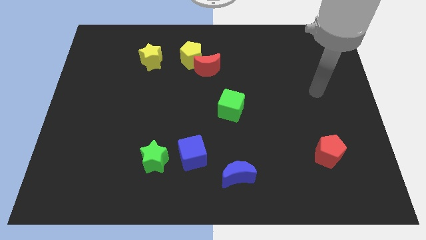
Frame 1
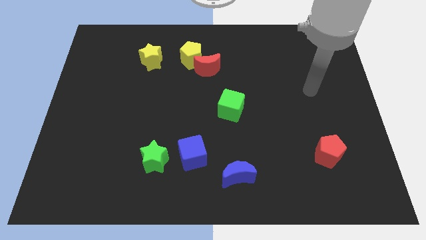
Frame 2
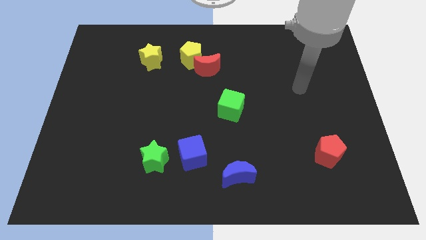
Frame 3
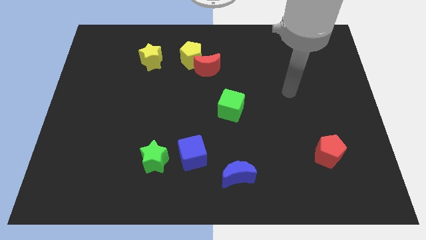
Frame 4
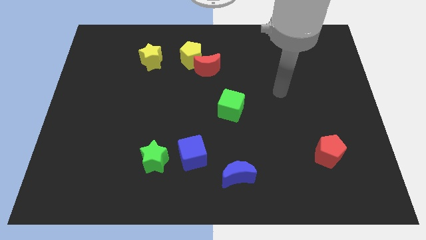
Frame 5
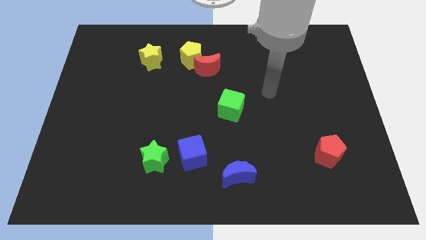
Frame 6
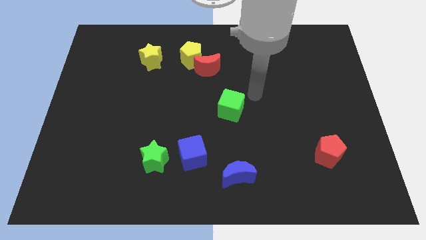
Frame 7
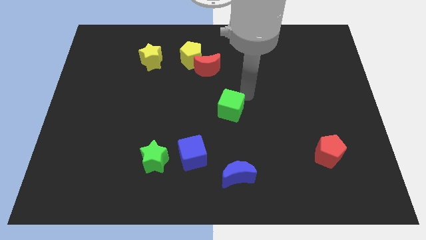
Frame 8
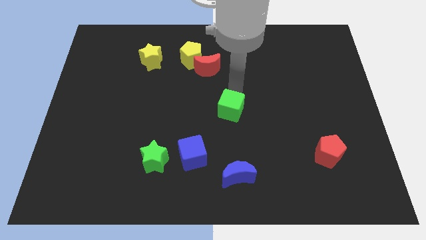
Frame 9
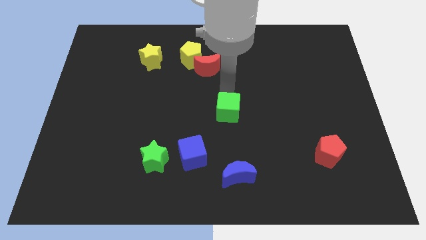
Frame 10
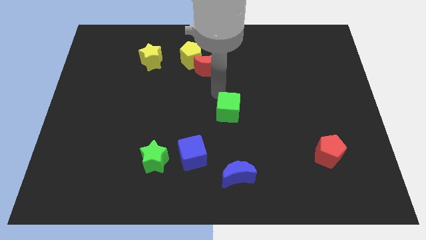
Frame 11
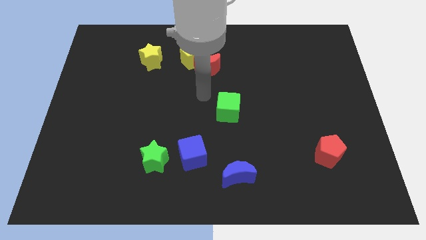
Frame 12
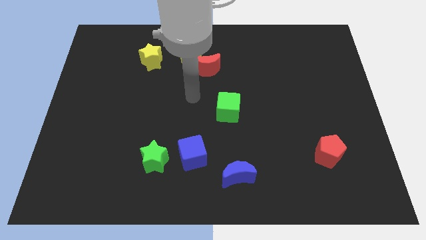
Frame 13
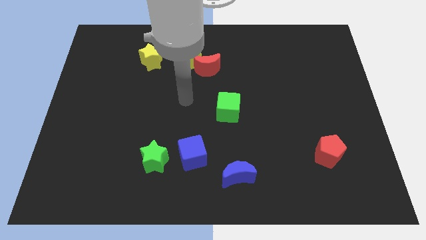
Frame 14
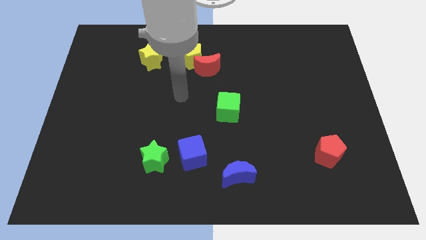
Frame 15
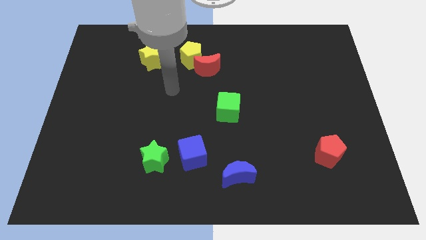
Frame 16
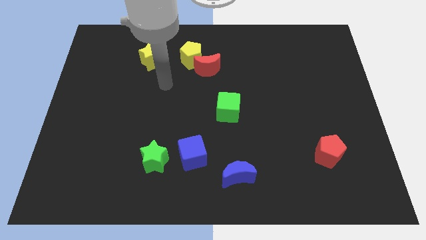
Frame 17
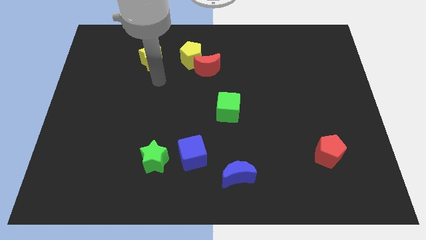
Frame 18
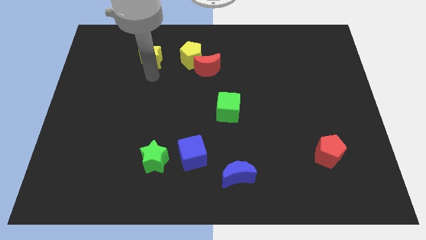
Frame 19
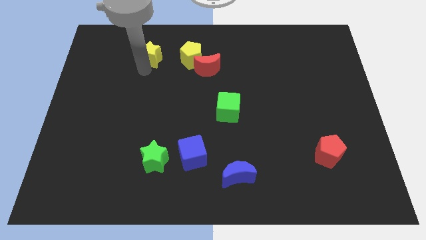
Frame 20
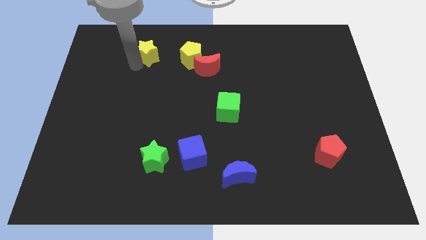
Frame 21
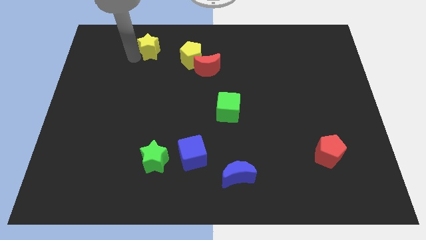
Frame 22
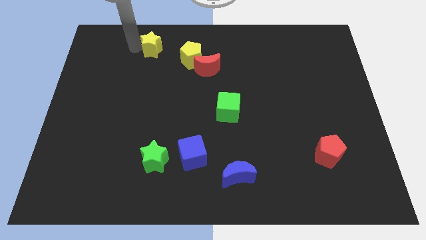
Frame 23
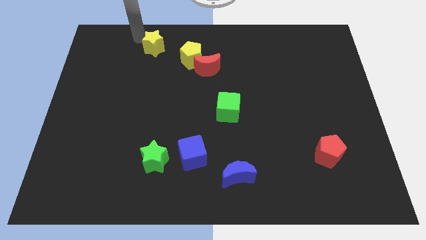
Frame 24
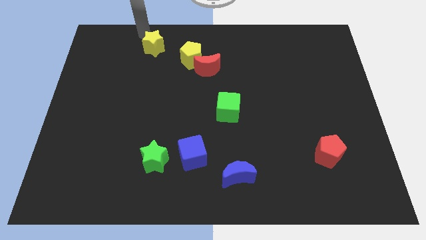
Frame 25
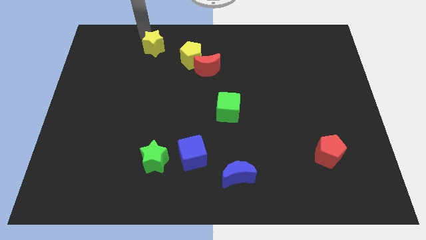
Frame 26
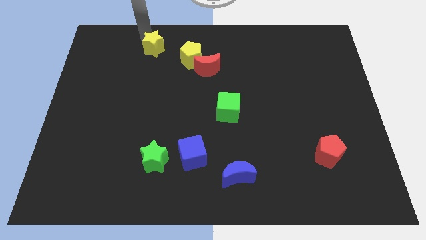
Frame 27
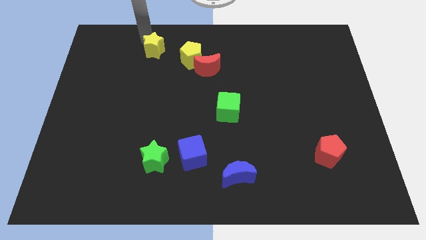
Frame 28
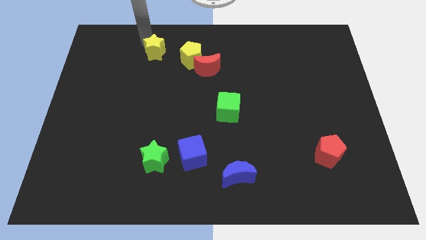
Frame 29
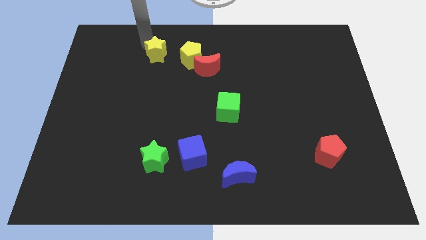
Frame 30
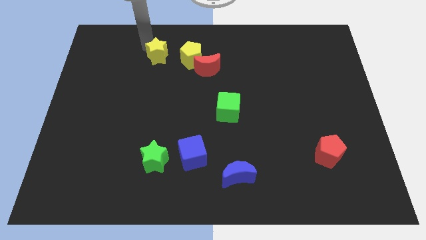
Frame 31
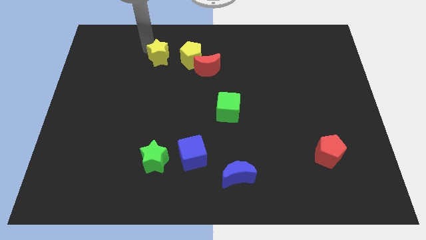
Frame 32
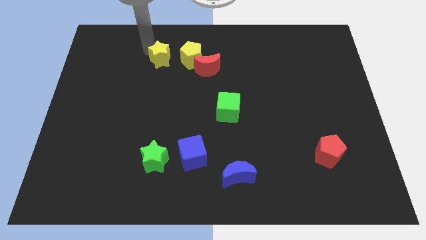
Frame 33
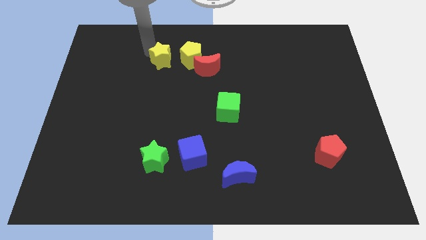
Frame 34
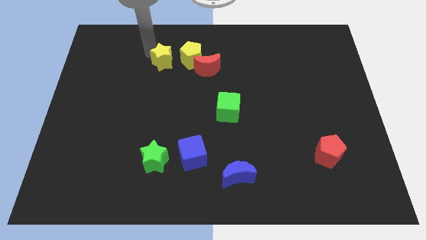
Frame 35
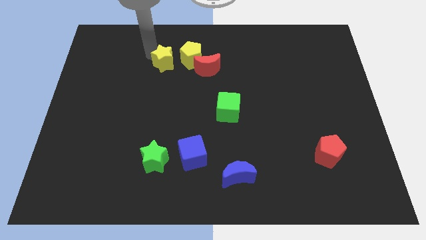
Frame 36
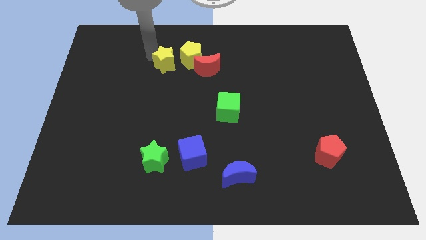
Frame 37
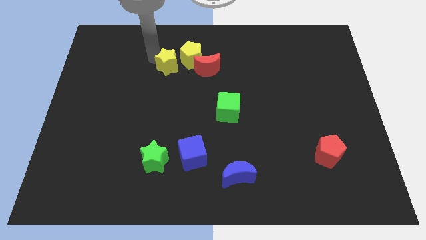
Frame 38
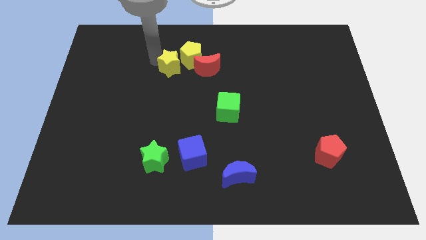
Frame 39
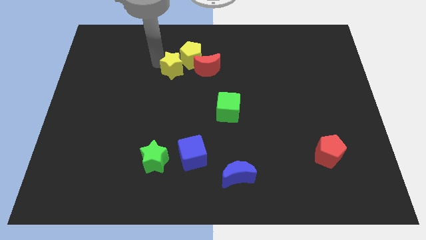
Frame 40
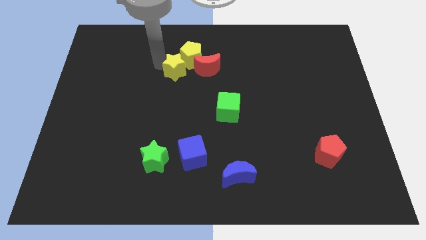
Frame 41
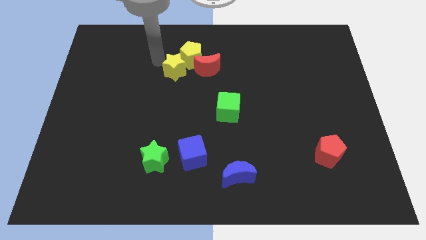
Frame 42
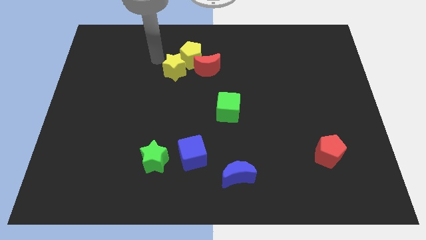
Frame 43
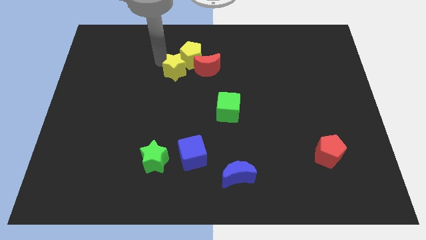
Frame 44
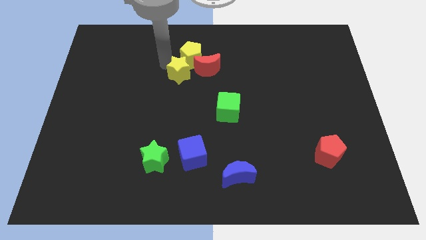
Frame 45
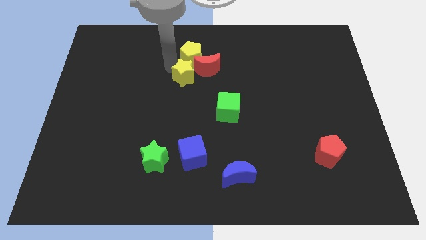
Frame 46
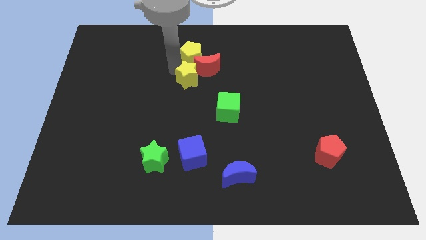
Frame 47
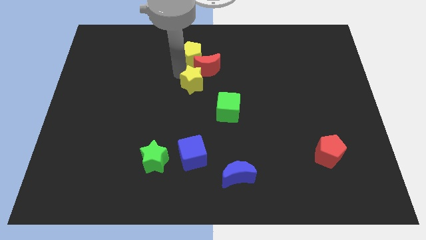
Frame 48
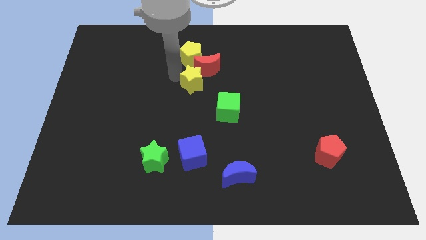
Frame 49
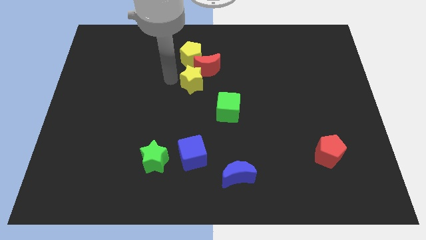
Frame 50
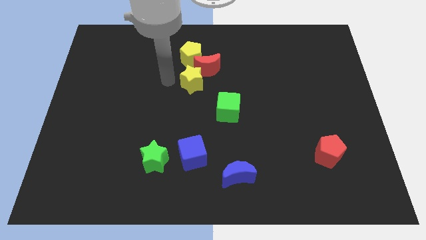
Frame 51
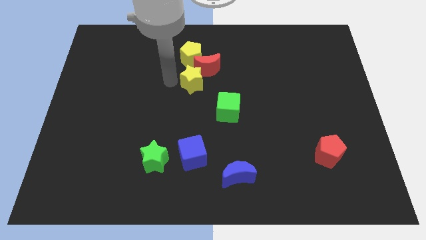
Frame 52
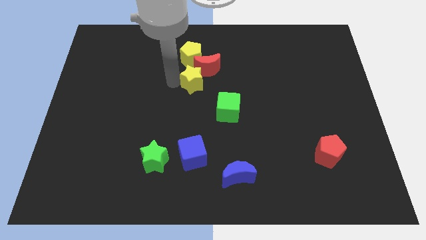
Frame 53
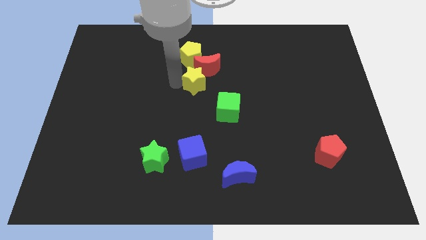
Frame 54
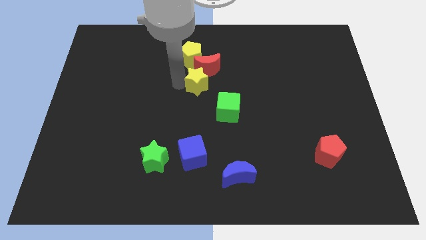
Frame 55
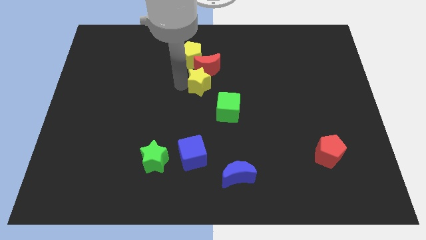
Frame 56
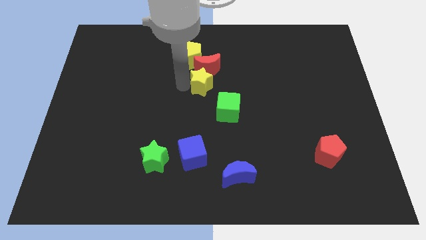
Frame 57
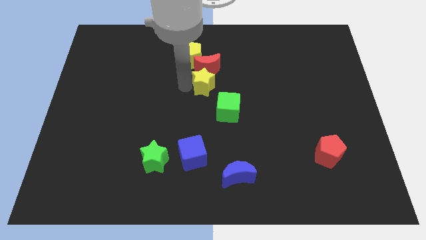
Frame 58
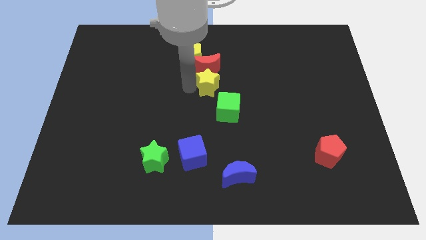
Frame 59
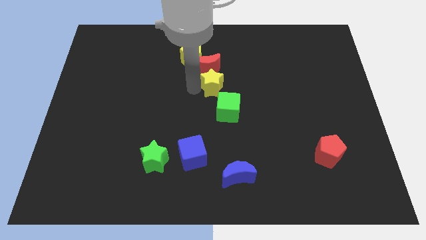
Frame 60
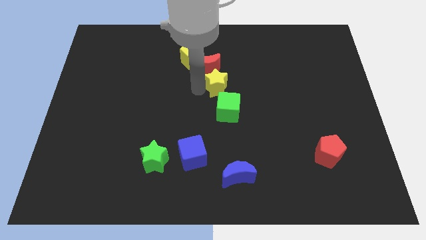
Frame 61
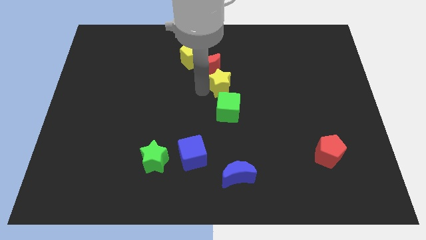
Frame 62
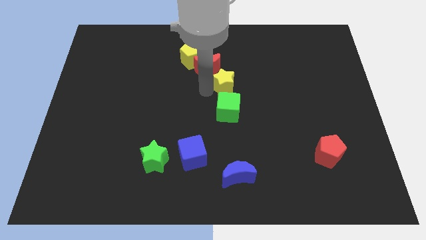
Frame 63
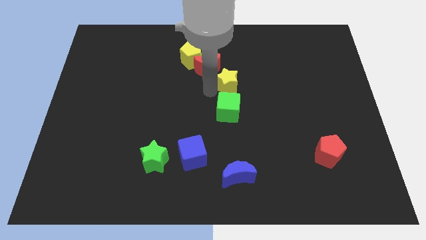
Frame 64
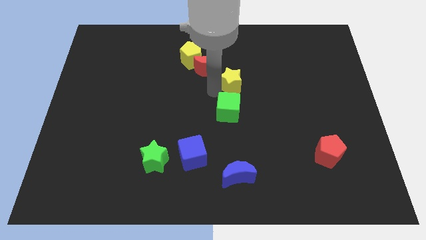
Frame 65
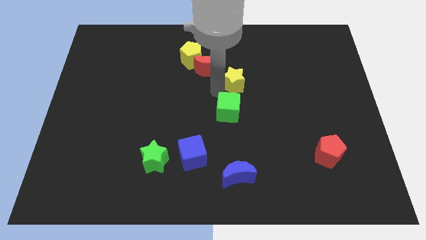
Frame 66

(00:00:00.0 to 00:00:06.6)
slide the yellow star to the right side of the red moon

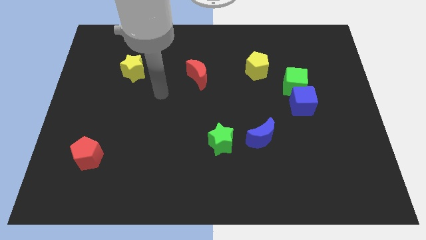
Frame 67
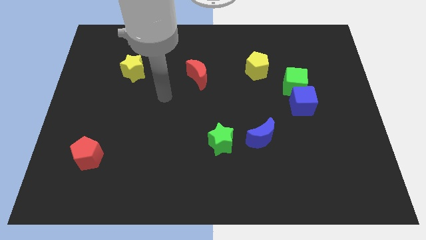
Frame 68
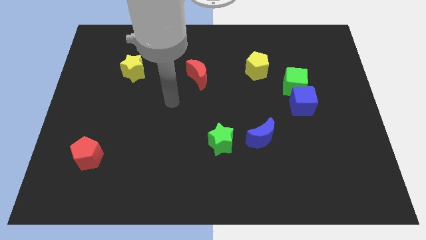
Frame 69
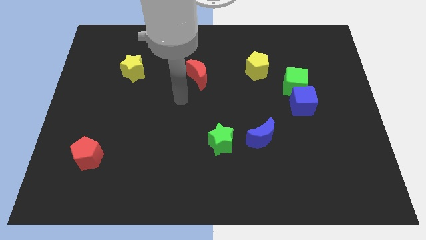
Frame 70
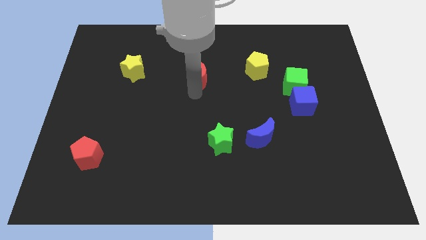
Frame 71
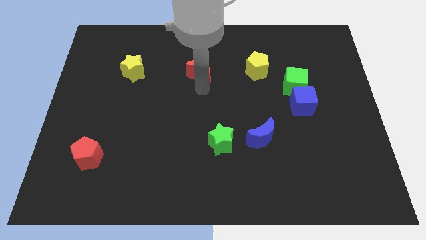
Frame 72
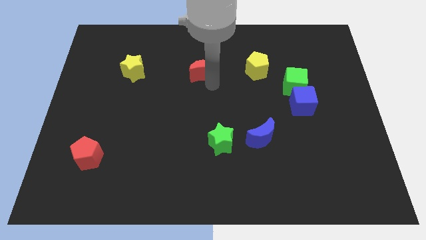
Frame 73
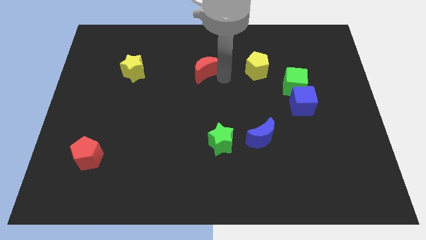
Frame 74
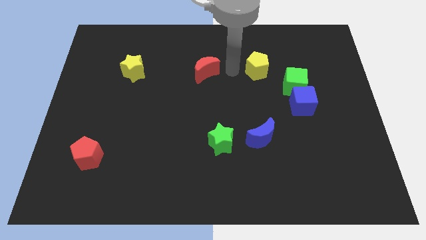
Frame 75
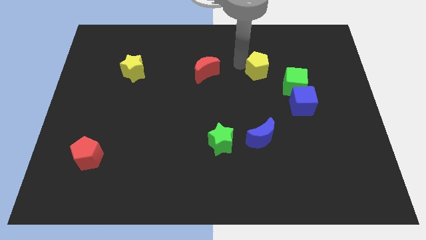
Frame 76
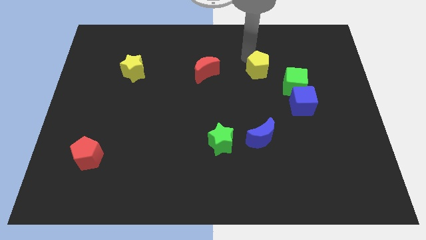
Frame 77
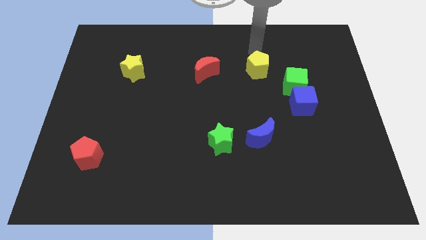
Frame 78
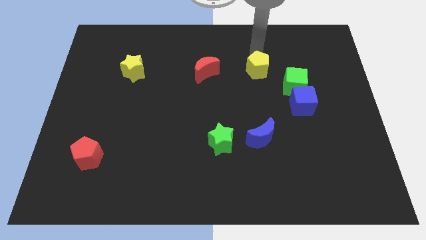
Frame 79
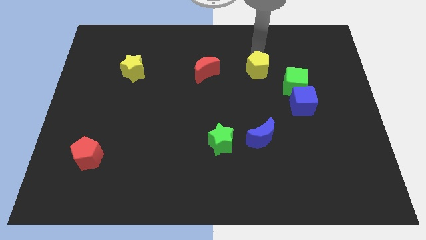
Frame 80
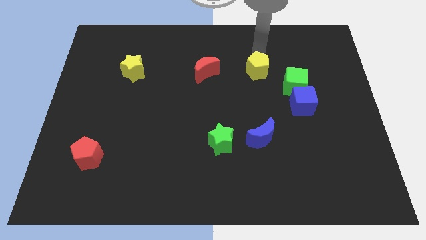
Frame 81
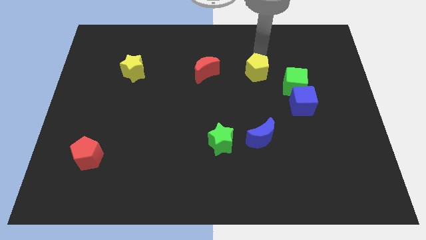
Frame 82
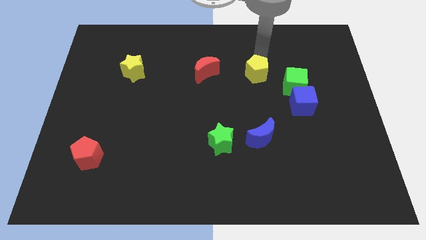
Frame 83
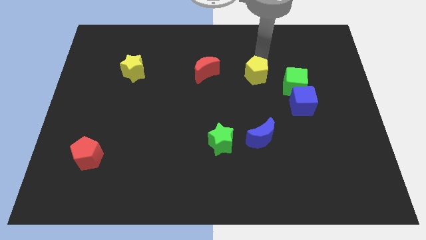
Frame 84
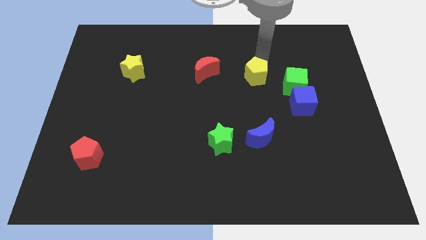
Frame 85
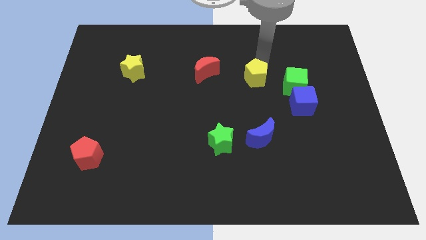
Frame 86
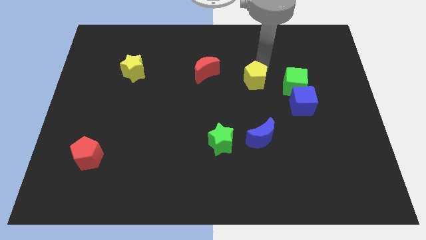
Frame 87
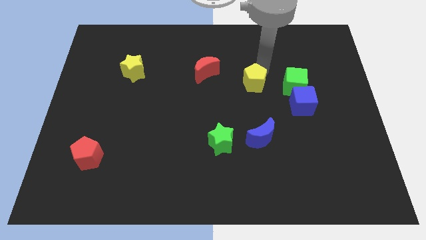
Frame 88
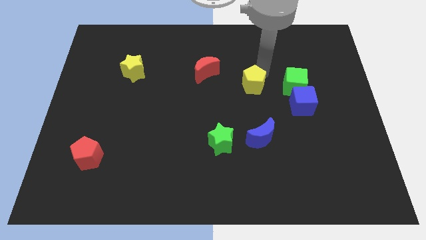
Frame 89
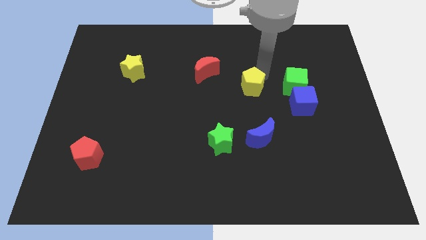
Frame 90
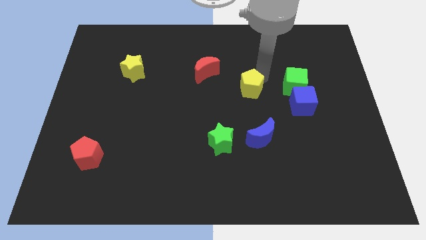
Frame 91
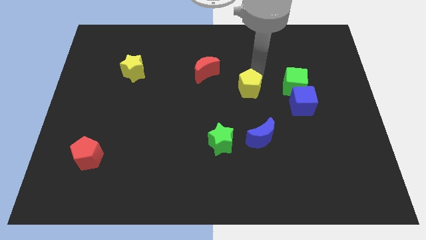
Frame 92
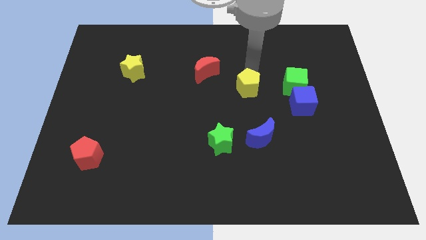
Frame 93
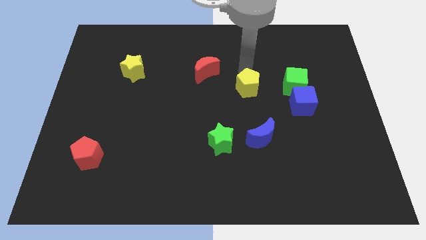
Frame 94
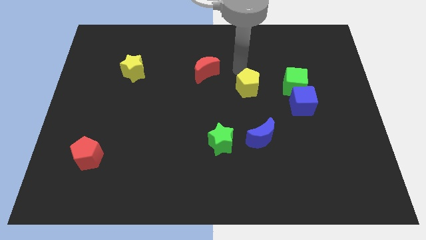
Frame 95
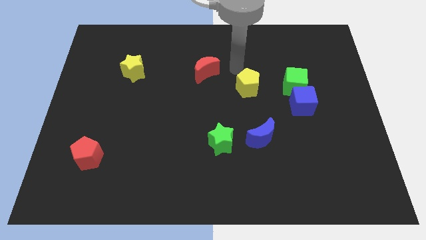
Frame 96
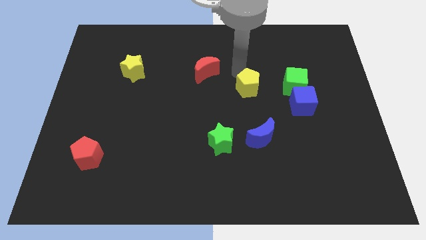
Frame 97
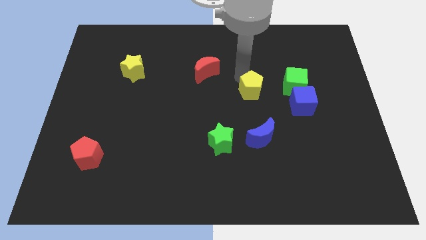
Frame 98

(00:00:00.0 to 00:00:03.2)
move the yellow pentagon left of the blue cube
